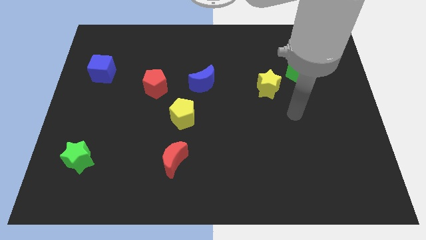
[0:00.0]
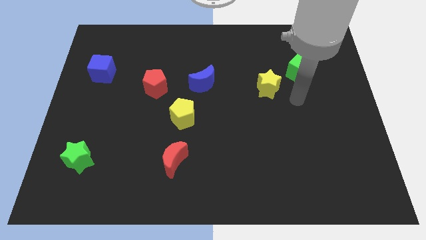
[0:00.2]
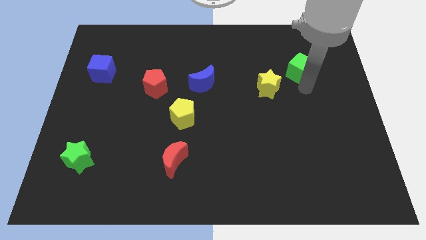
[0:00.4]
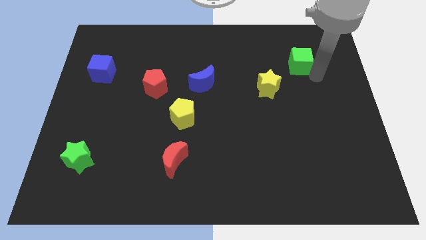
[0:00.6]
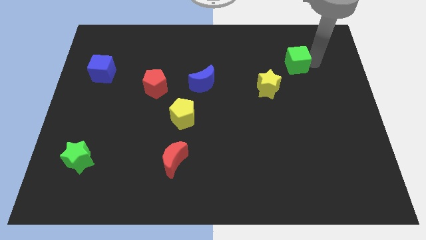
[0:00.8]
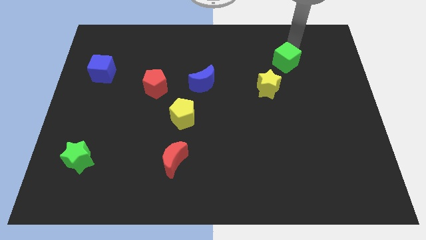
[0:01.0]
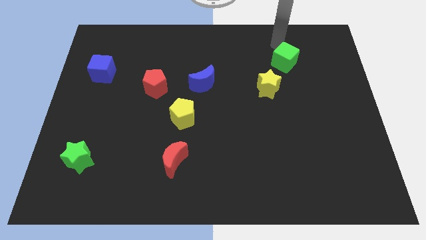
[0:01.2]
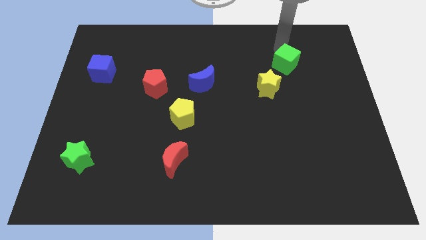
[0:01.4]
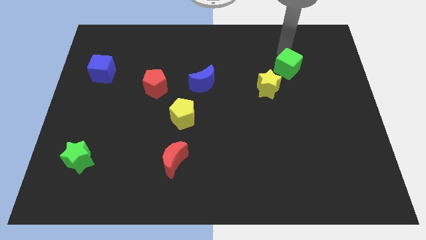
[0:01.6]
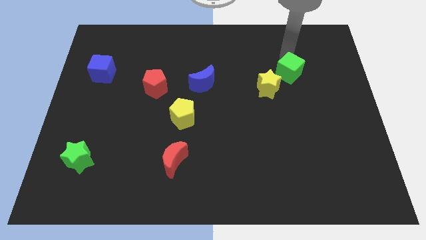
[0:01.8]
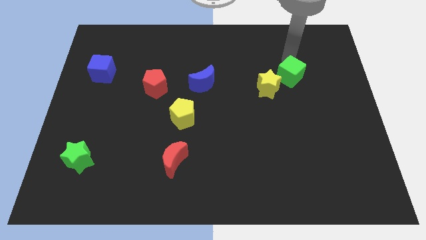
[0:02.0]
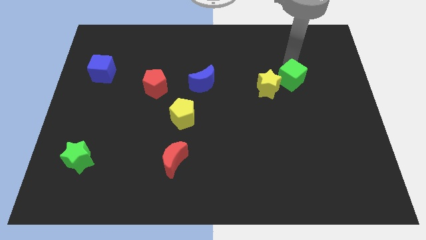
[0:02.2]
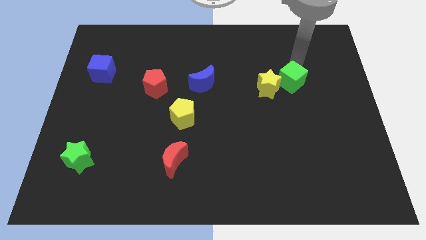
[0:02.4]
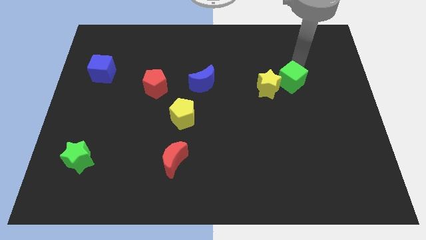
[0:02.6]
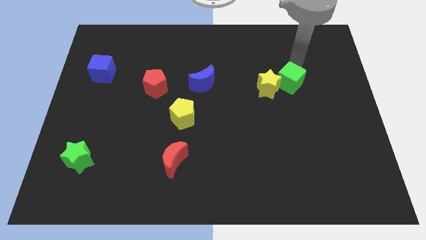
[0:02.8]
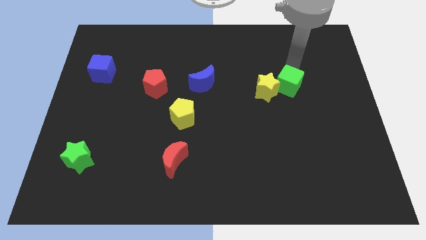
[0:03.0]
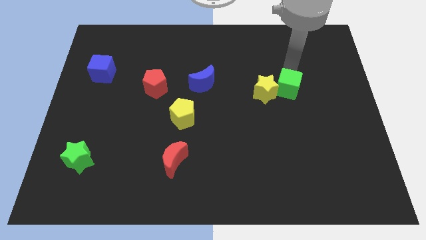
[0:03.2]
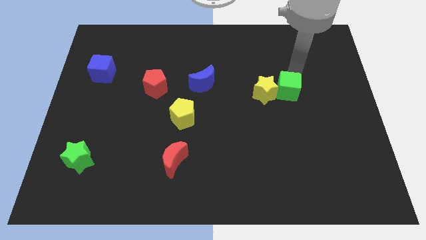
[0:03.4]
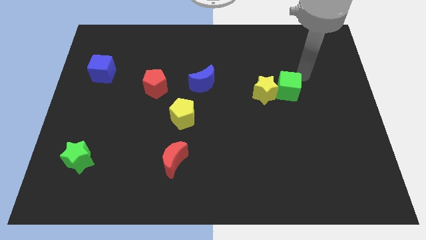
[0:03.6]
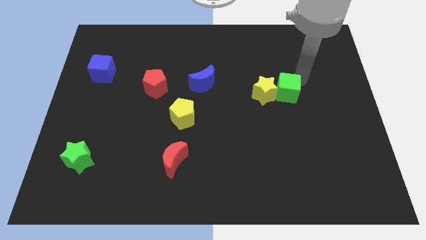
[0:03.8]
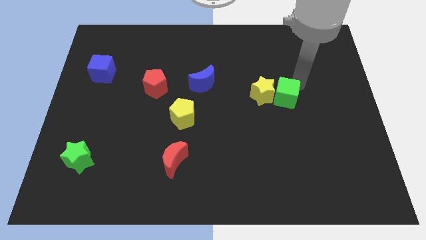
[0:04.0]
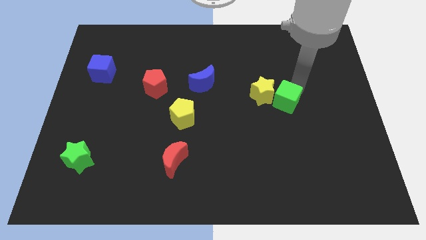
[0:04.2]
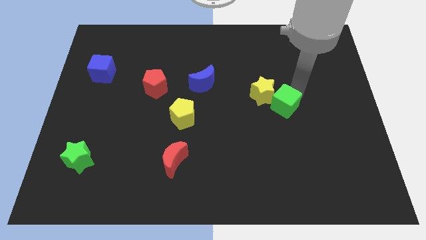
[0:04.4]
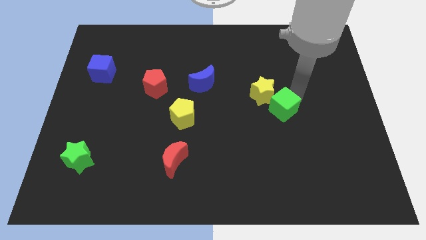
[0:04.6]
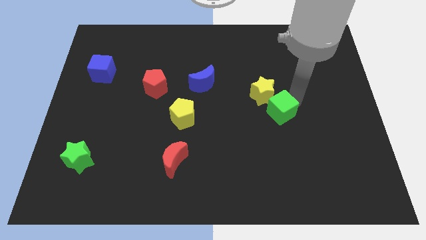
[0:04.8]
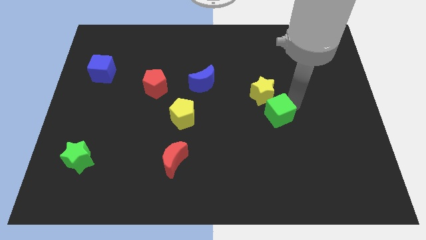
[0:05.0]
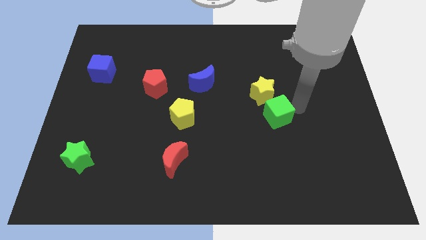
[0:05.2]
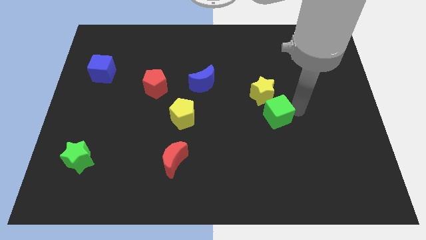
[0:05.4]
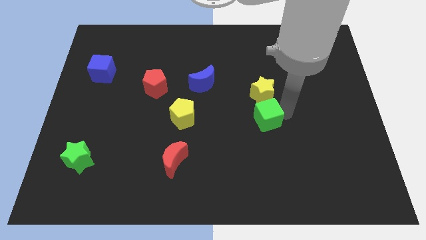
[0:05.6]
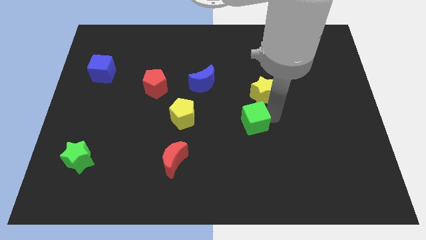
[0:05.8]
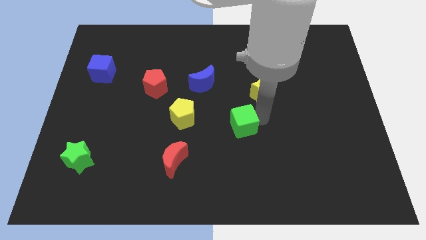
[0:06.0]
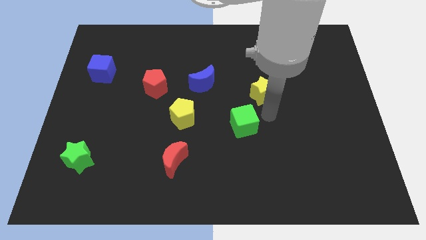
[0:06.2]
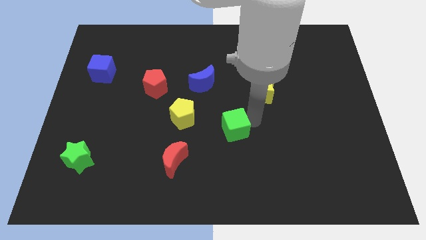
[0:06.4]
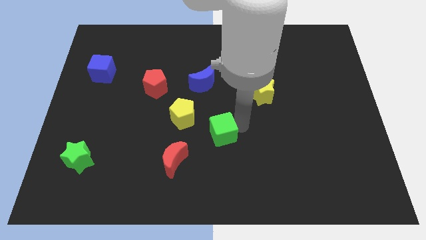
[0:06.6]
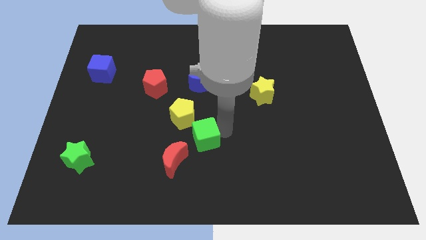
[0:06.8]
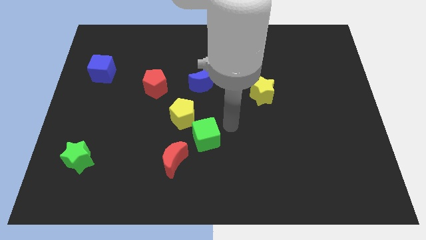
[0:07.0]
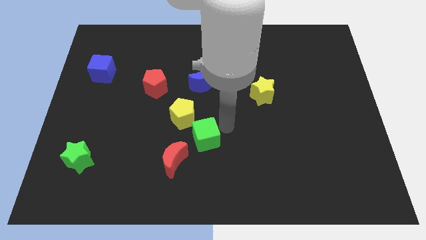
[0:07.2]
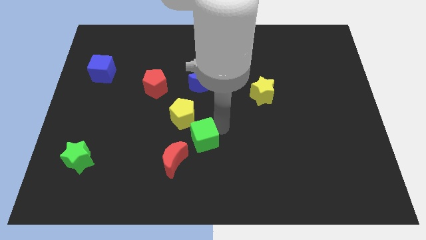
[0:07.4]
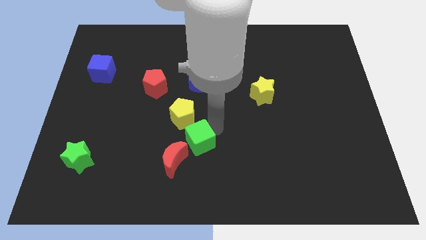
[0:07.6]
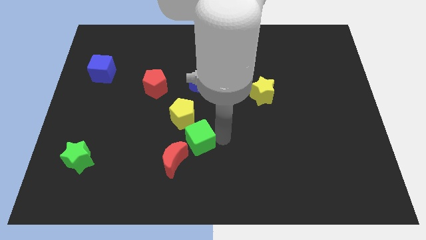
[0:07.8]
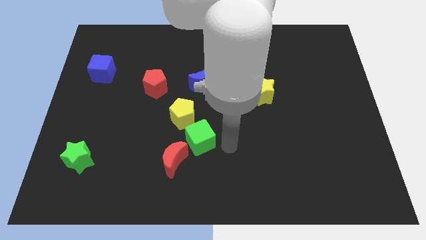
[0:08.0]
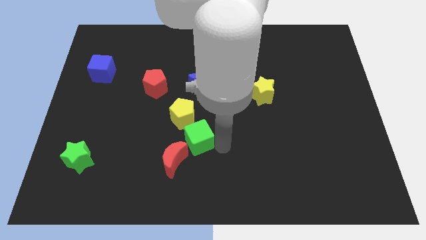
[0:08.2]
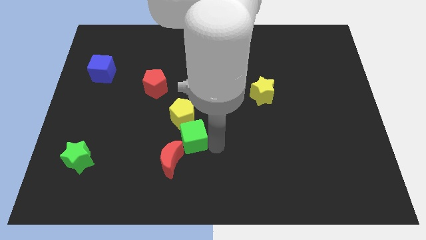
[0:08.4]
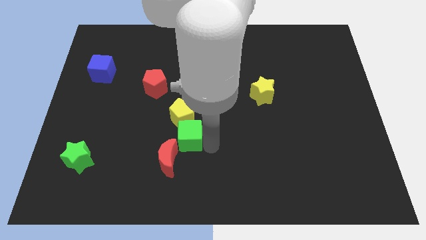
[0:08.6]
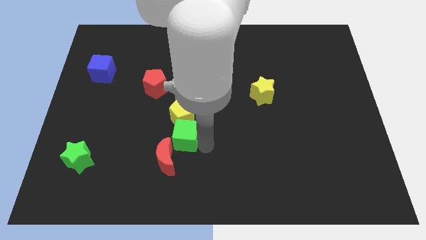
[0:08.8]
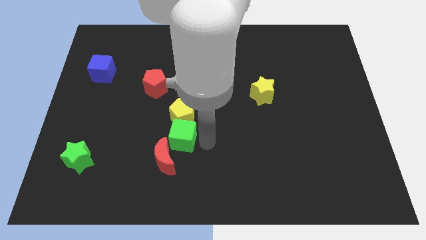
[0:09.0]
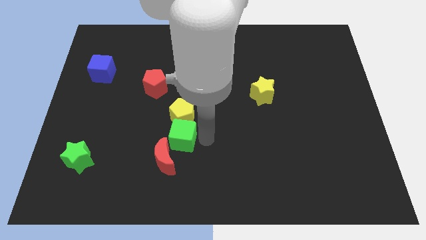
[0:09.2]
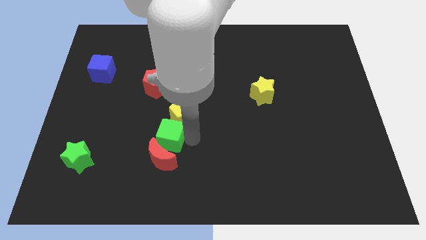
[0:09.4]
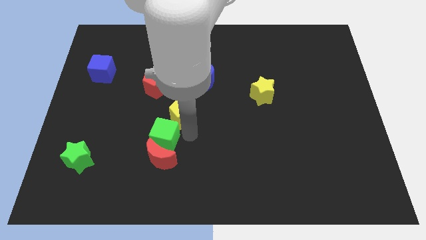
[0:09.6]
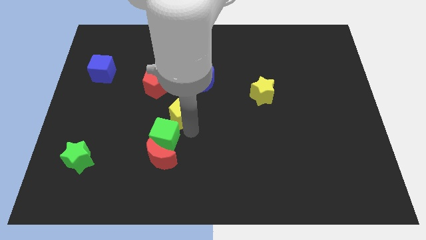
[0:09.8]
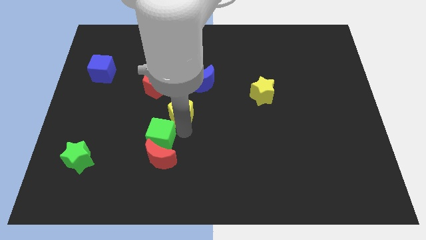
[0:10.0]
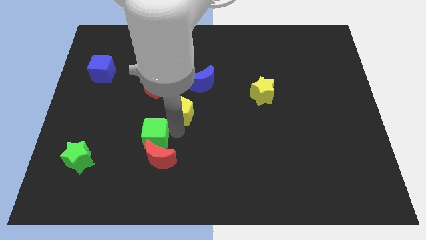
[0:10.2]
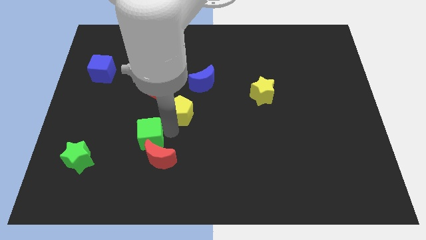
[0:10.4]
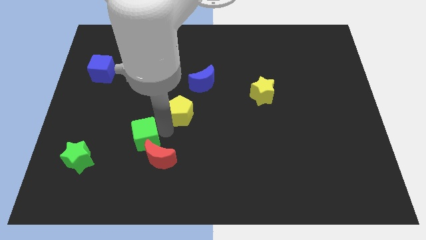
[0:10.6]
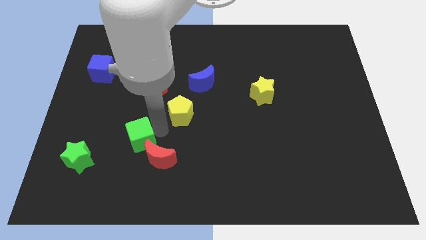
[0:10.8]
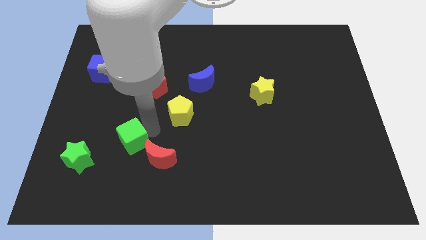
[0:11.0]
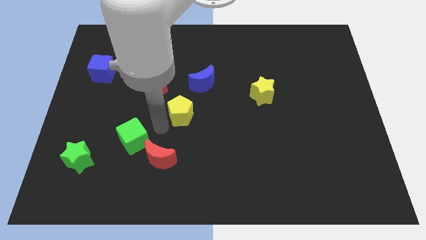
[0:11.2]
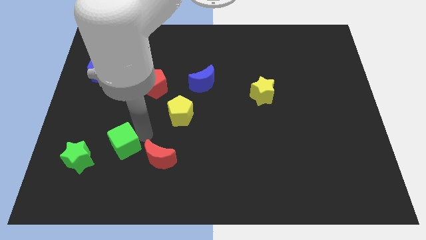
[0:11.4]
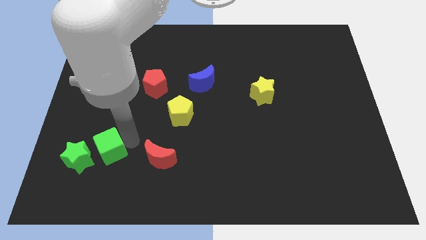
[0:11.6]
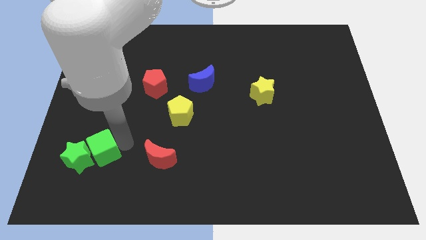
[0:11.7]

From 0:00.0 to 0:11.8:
slide the green cube next to the green star
